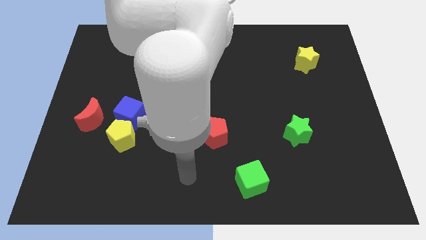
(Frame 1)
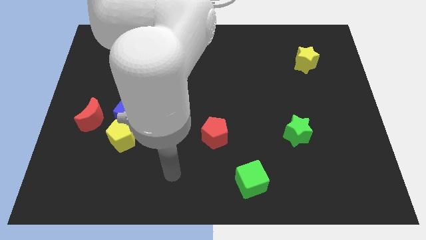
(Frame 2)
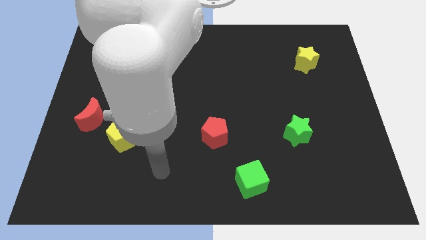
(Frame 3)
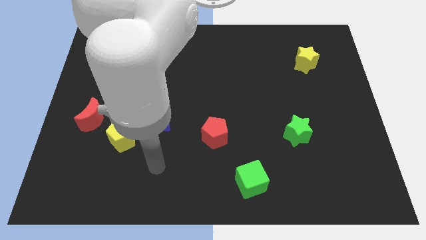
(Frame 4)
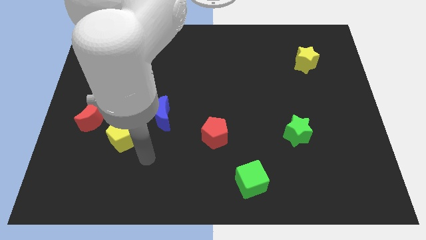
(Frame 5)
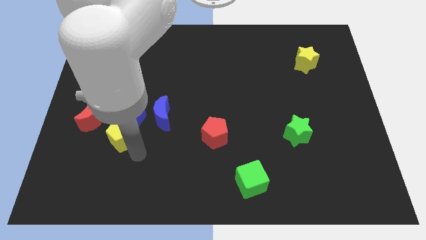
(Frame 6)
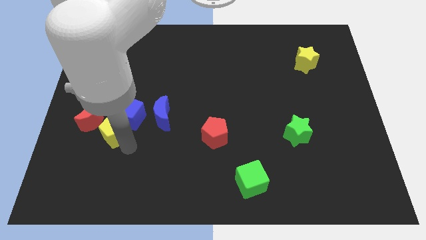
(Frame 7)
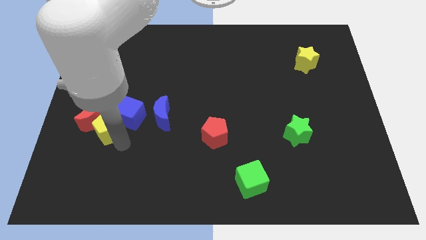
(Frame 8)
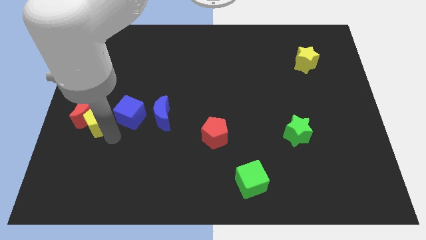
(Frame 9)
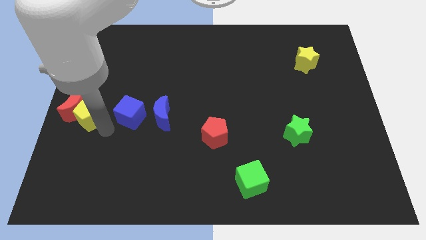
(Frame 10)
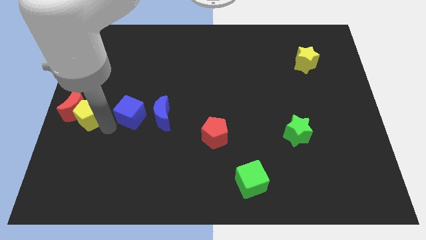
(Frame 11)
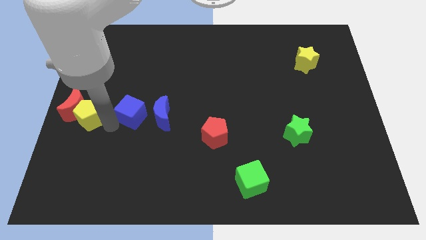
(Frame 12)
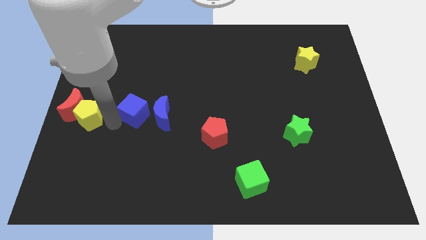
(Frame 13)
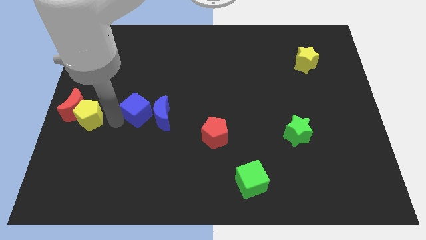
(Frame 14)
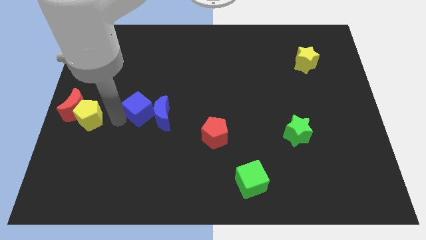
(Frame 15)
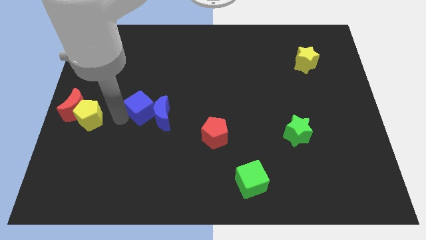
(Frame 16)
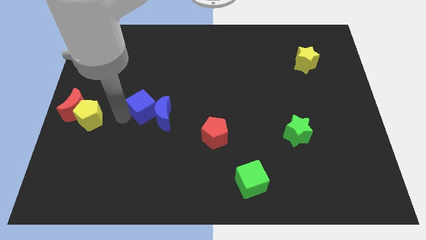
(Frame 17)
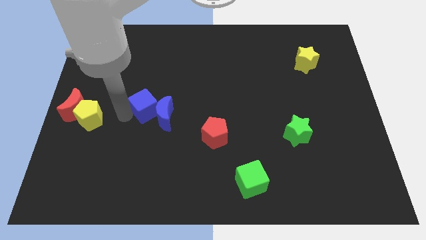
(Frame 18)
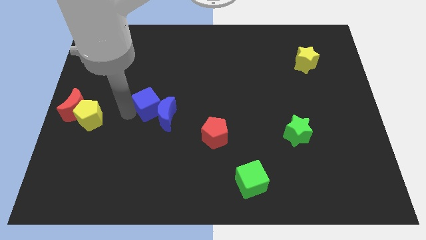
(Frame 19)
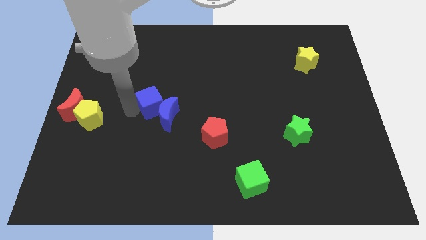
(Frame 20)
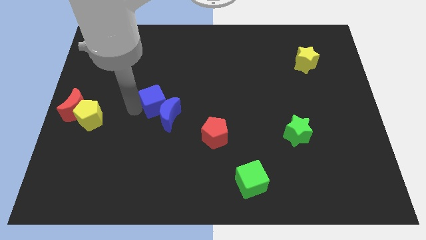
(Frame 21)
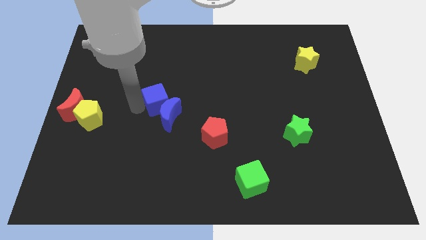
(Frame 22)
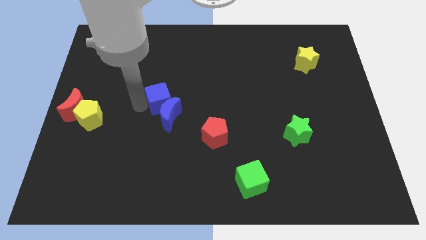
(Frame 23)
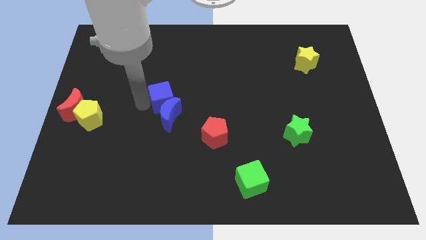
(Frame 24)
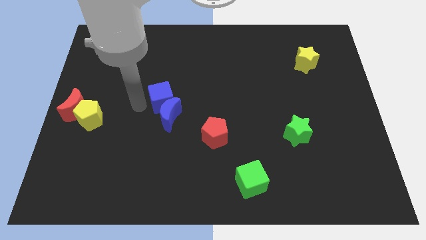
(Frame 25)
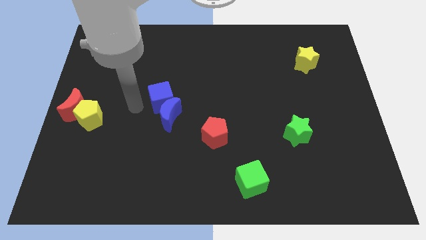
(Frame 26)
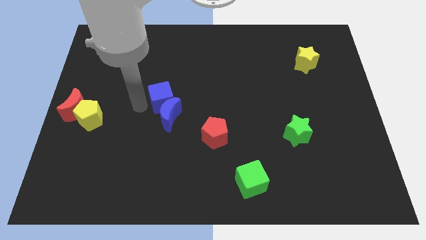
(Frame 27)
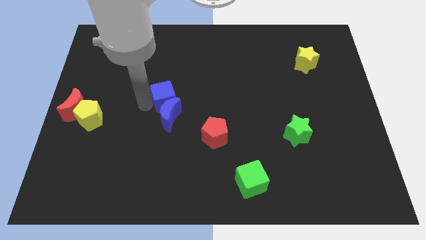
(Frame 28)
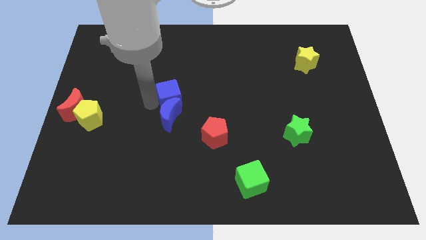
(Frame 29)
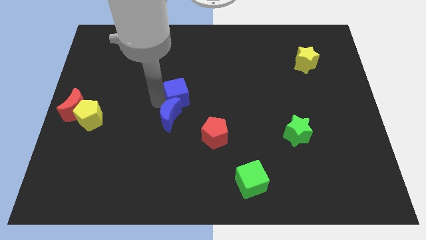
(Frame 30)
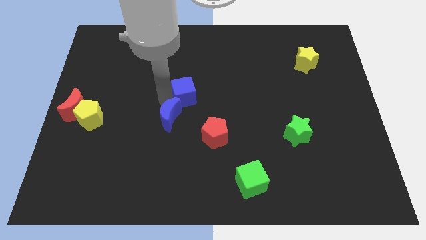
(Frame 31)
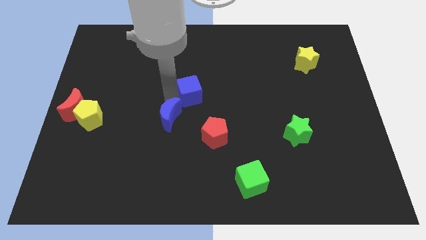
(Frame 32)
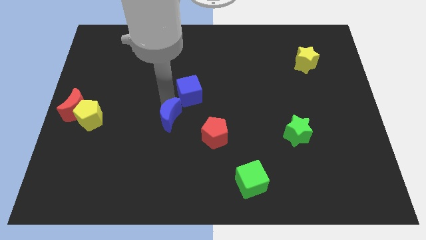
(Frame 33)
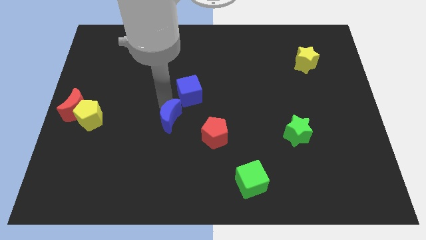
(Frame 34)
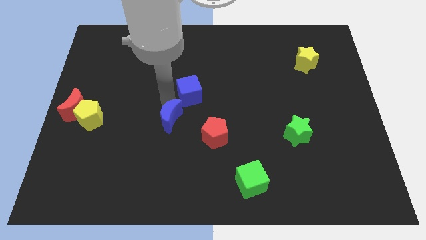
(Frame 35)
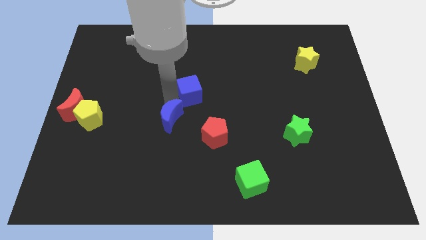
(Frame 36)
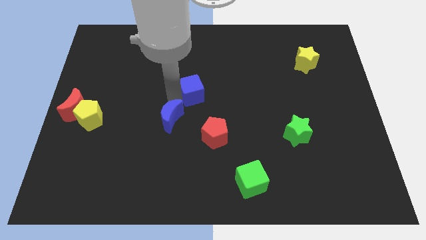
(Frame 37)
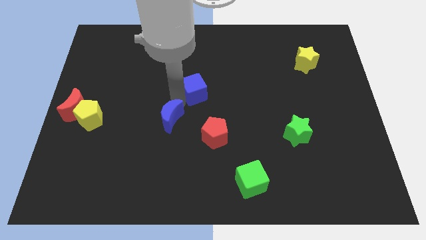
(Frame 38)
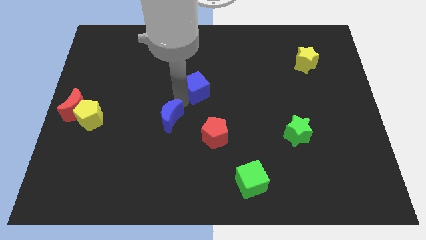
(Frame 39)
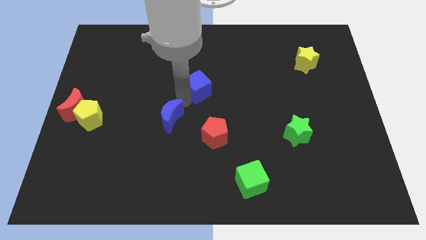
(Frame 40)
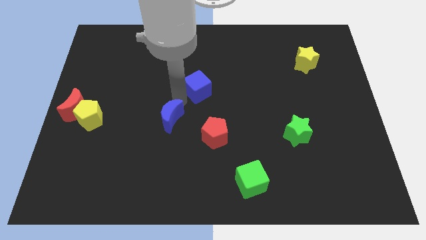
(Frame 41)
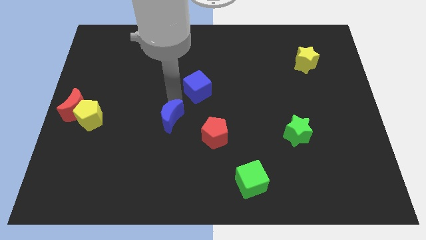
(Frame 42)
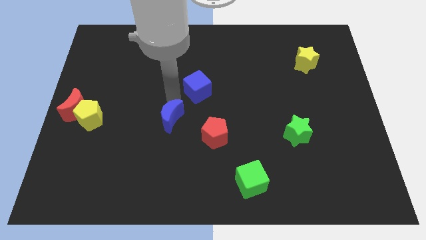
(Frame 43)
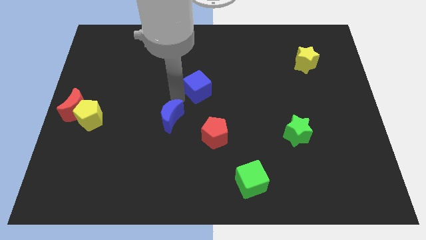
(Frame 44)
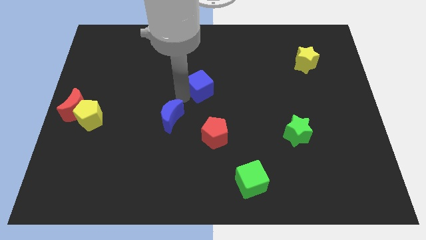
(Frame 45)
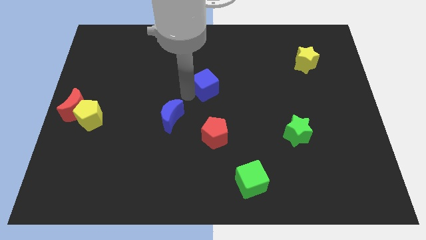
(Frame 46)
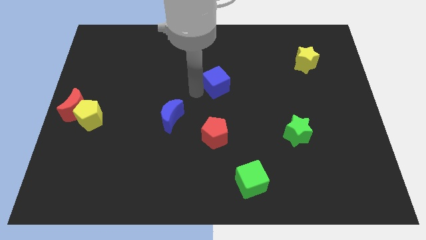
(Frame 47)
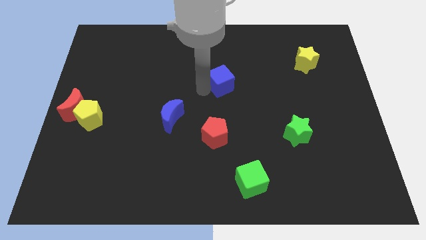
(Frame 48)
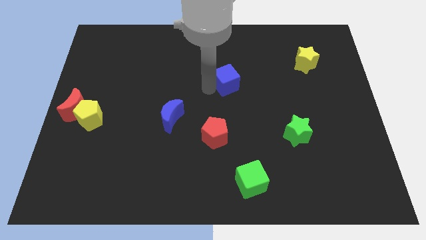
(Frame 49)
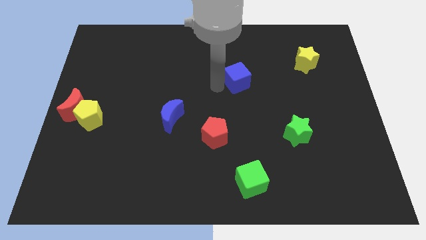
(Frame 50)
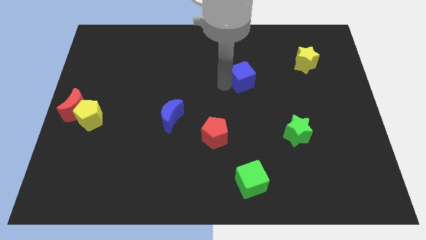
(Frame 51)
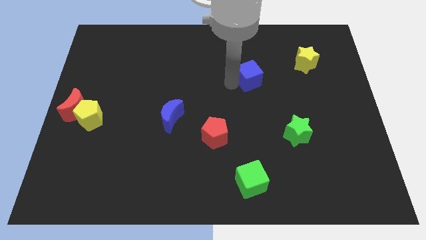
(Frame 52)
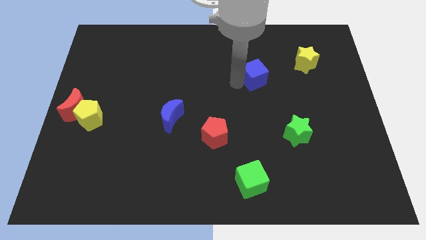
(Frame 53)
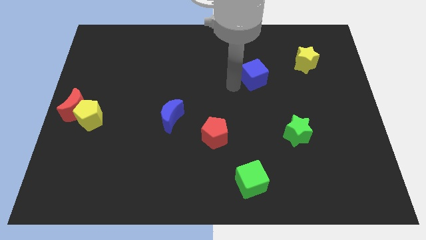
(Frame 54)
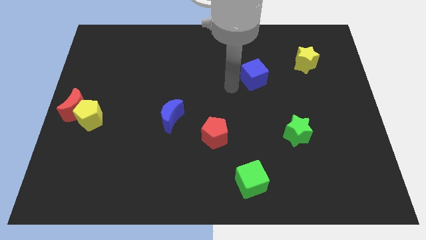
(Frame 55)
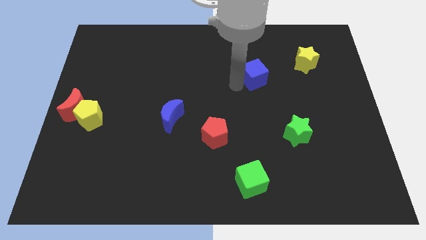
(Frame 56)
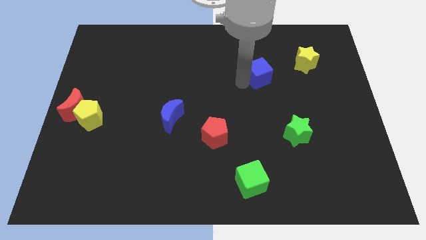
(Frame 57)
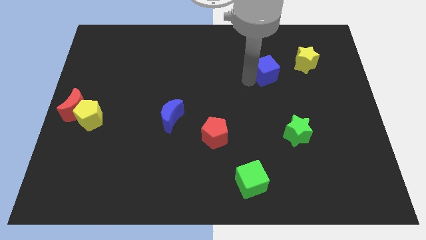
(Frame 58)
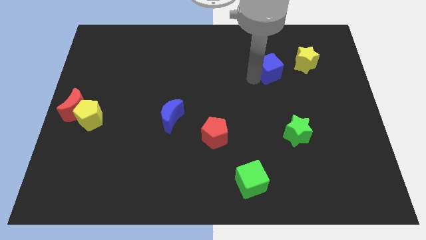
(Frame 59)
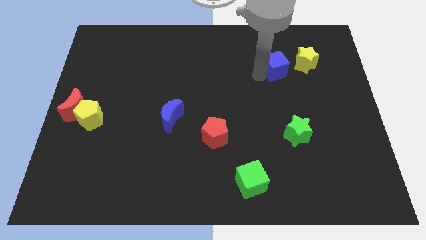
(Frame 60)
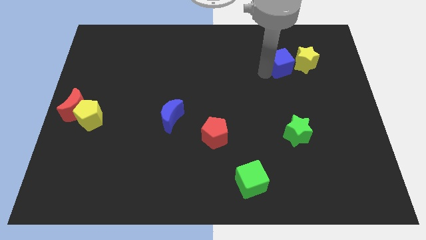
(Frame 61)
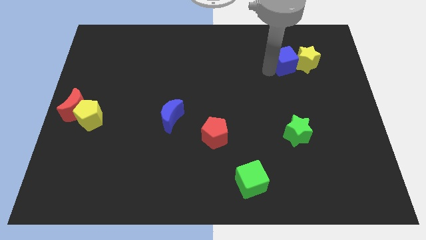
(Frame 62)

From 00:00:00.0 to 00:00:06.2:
slide the blue cube close to the yellow star

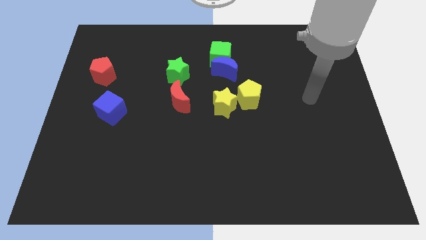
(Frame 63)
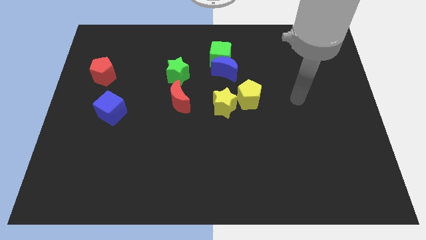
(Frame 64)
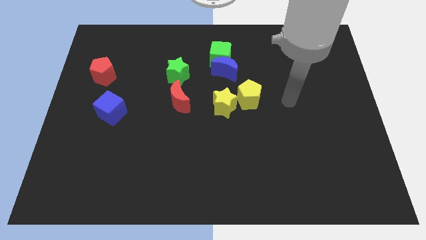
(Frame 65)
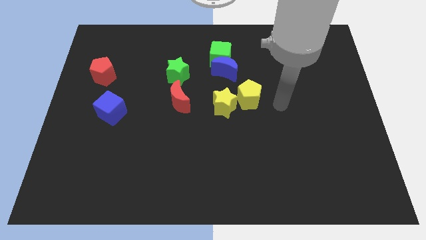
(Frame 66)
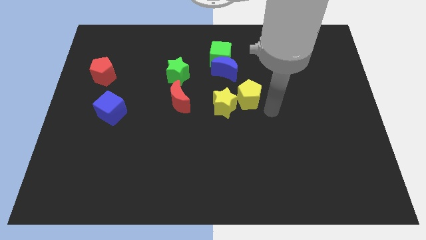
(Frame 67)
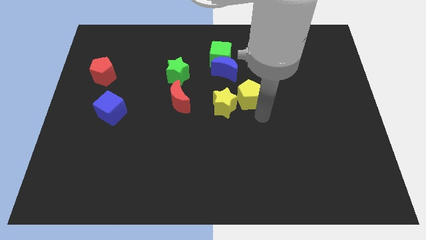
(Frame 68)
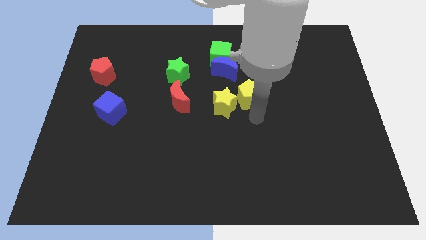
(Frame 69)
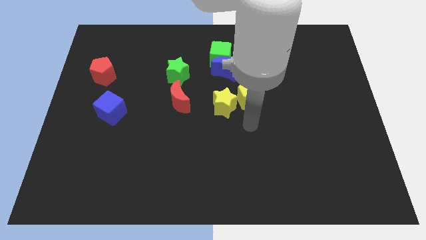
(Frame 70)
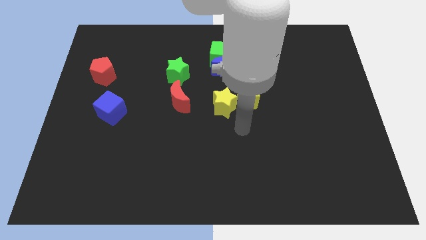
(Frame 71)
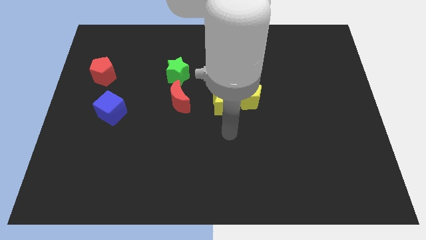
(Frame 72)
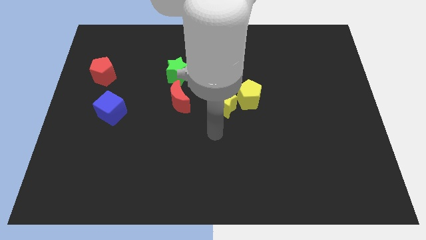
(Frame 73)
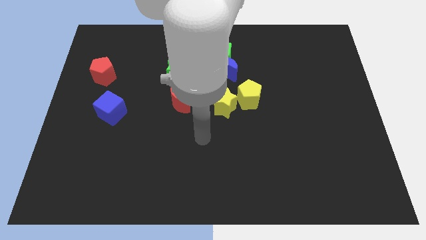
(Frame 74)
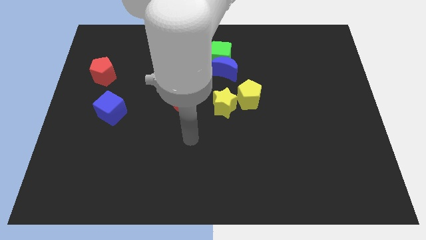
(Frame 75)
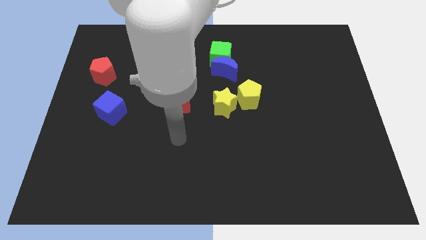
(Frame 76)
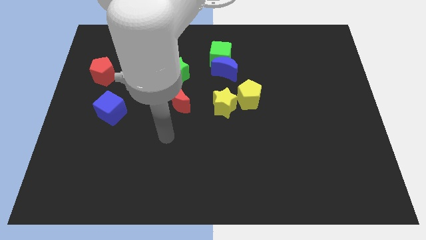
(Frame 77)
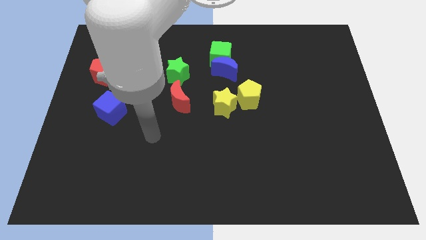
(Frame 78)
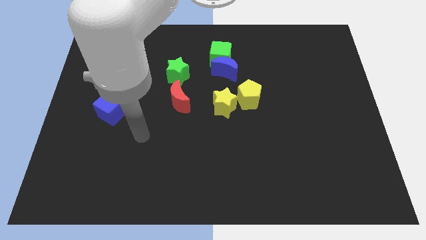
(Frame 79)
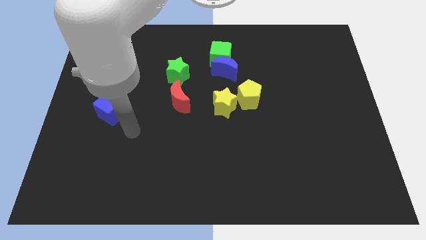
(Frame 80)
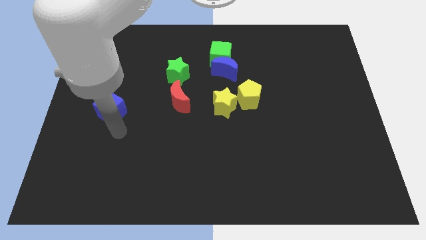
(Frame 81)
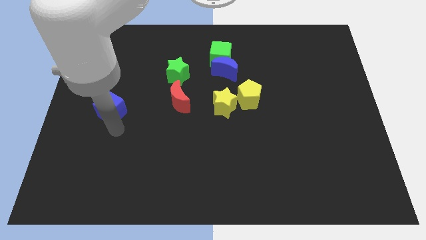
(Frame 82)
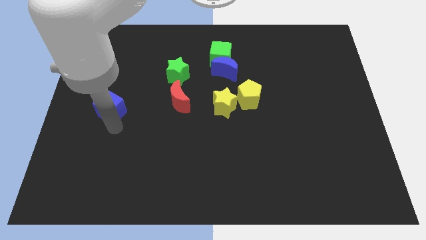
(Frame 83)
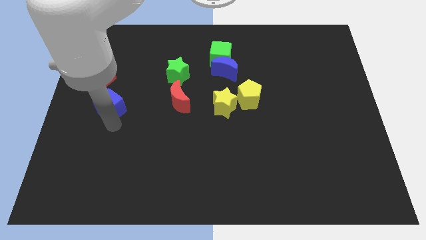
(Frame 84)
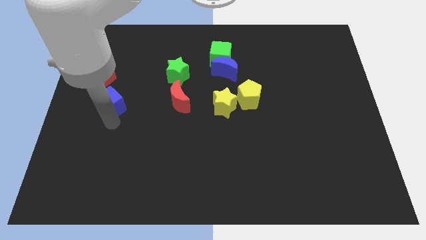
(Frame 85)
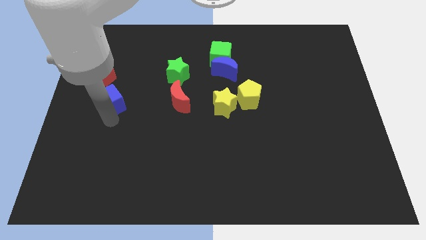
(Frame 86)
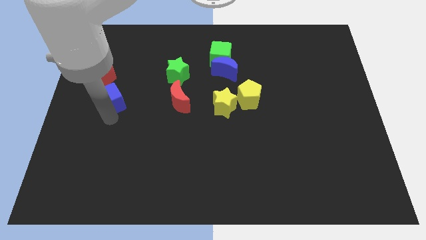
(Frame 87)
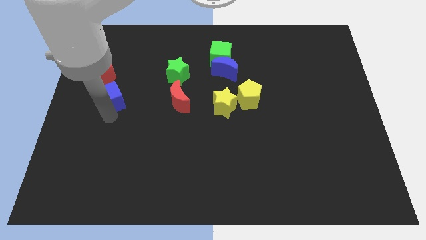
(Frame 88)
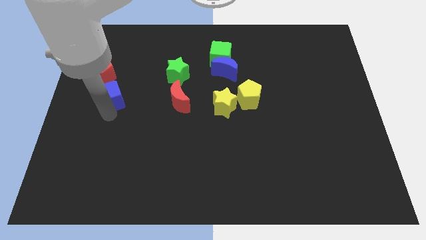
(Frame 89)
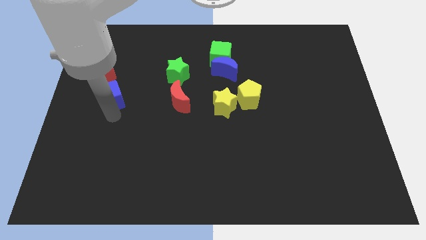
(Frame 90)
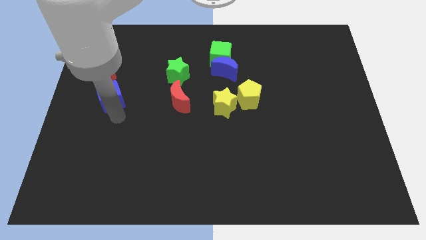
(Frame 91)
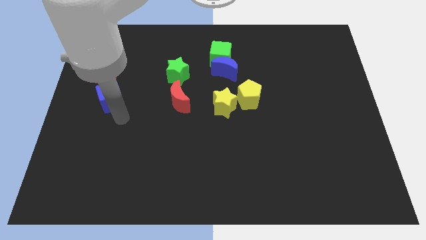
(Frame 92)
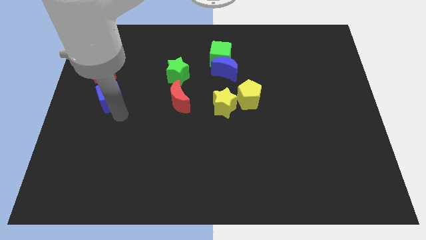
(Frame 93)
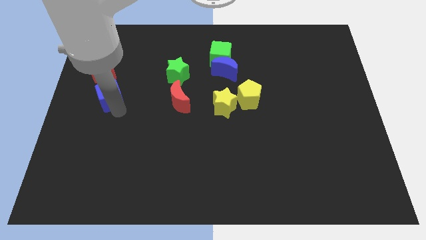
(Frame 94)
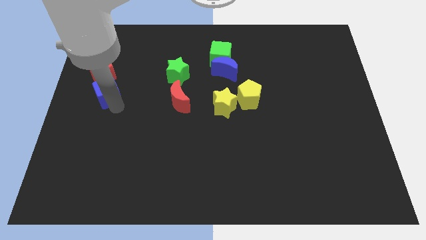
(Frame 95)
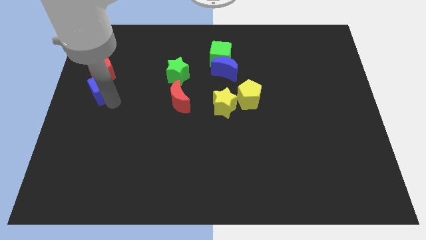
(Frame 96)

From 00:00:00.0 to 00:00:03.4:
push the blue cube next to the red pentagon
